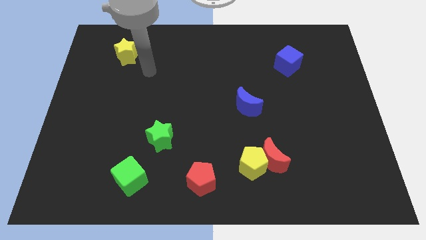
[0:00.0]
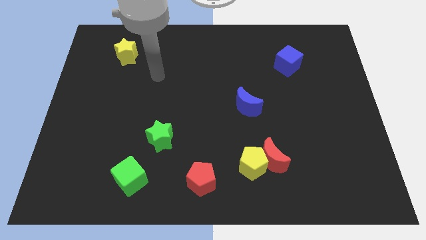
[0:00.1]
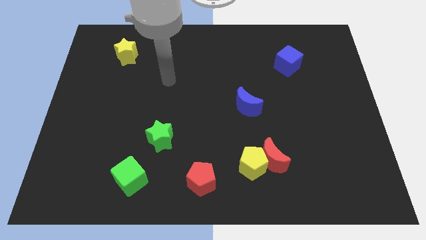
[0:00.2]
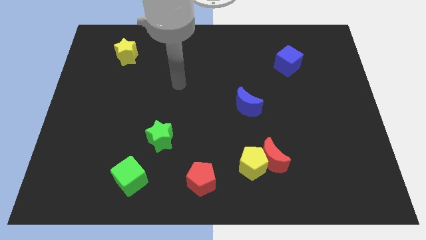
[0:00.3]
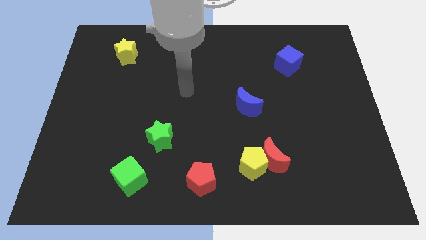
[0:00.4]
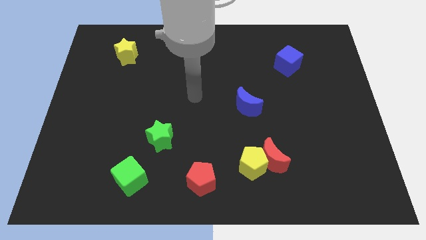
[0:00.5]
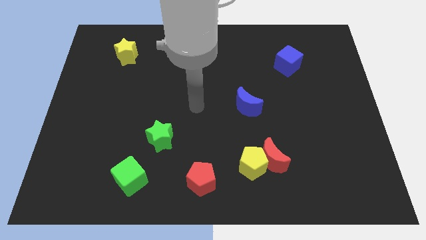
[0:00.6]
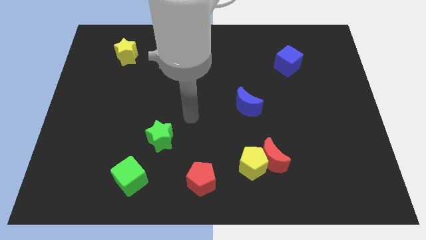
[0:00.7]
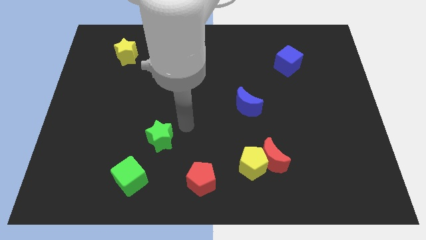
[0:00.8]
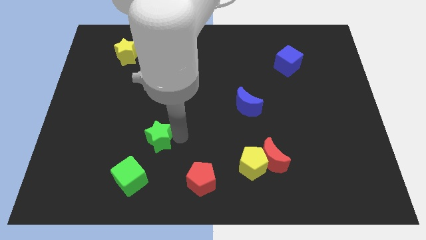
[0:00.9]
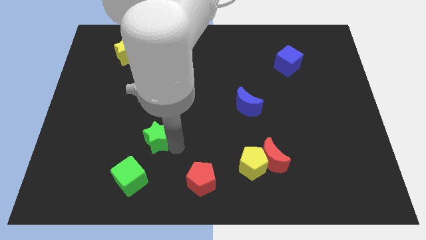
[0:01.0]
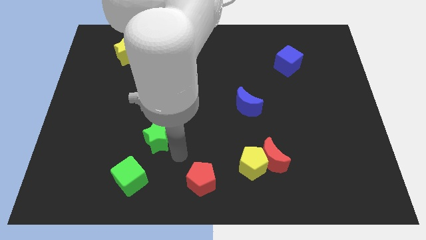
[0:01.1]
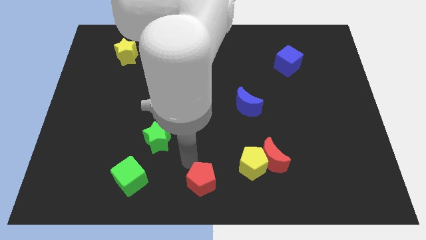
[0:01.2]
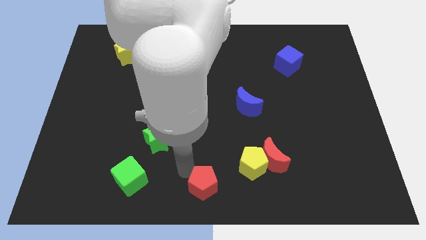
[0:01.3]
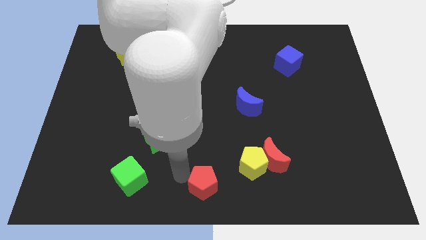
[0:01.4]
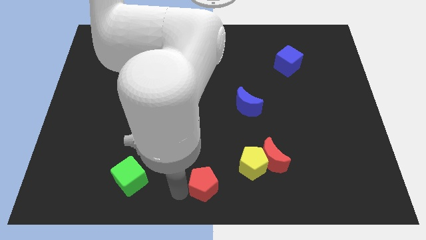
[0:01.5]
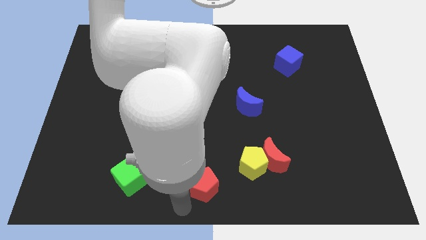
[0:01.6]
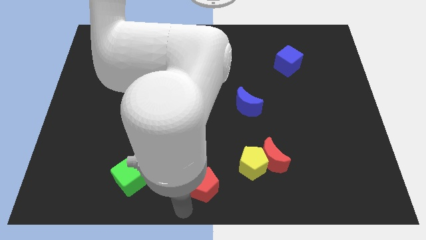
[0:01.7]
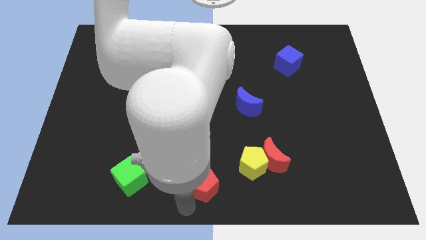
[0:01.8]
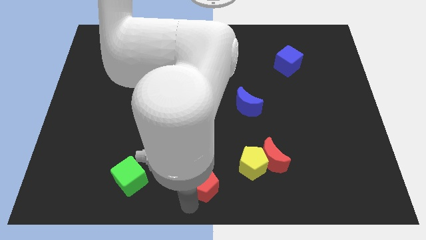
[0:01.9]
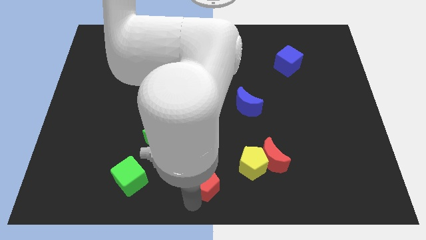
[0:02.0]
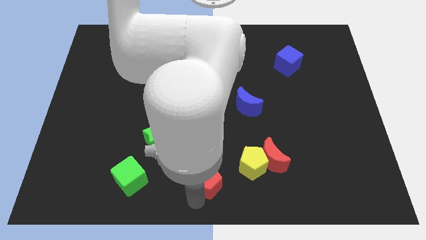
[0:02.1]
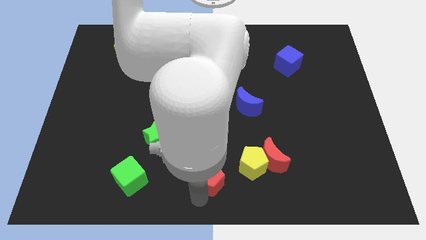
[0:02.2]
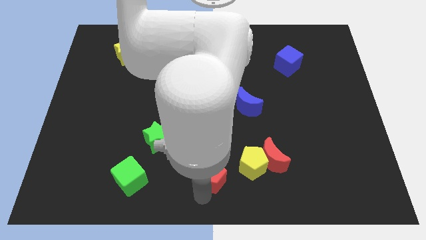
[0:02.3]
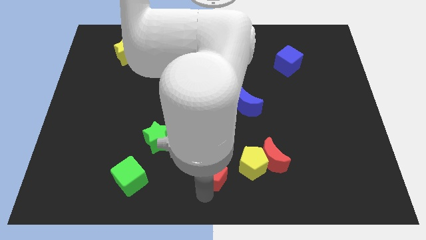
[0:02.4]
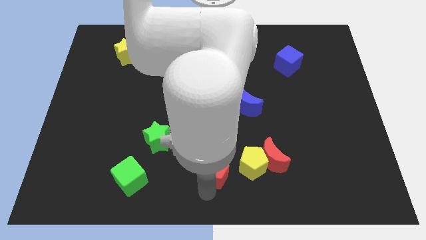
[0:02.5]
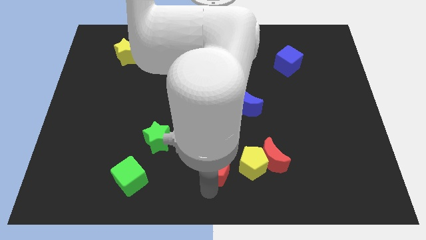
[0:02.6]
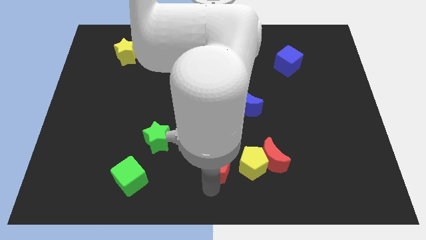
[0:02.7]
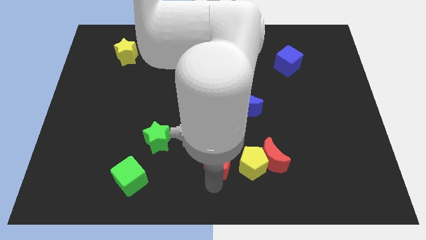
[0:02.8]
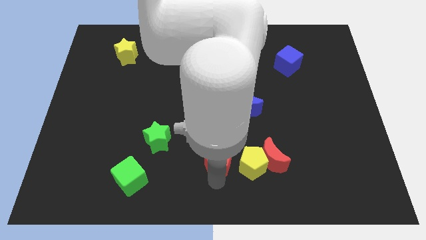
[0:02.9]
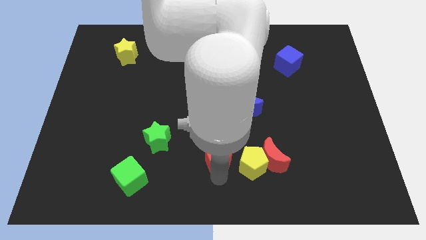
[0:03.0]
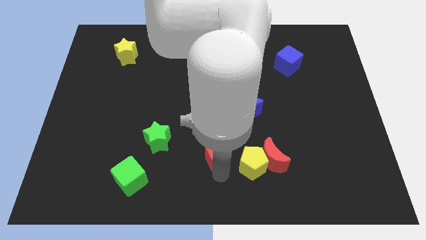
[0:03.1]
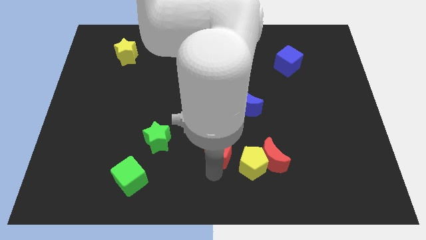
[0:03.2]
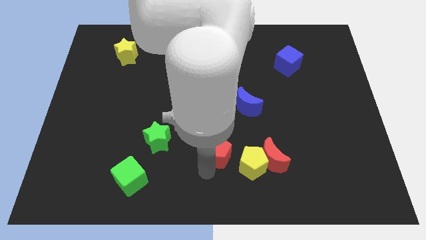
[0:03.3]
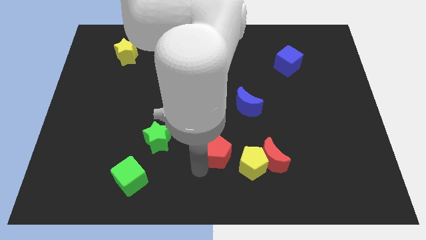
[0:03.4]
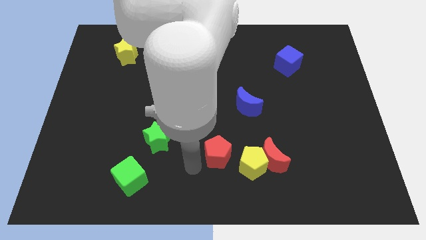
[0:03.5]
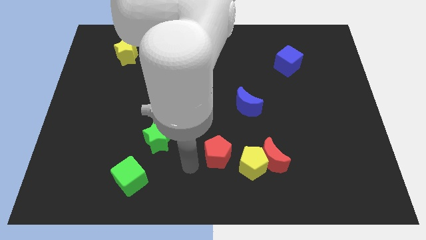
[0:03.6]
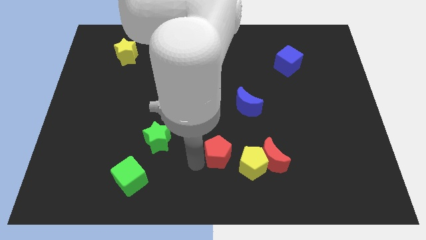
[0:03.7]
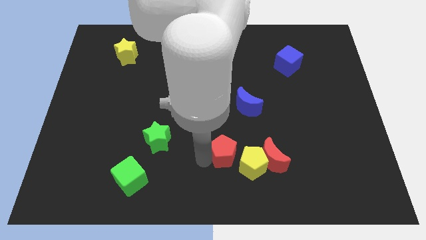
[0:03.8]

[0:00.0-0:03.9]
slightly push the red pentagon upwards and then to the right

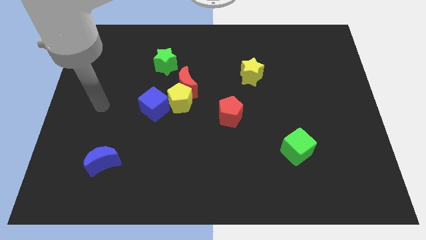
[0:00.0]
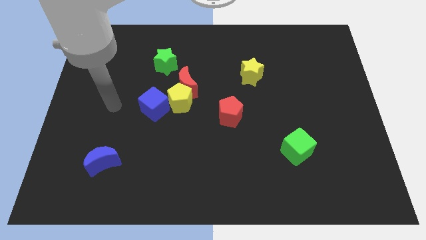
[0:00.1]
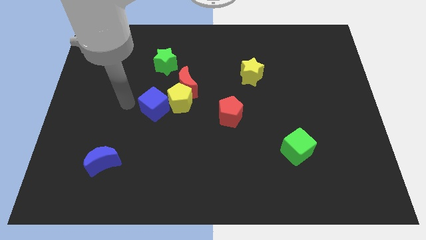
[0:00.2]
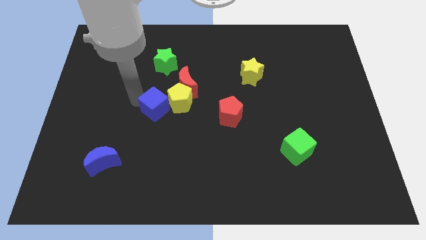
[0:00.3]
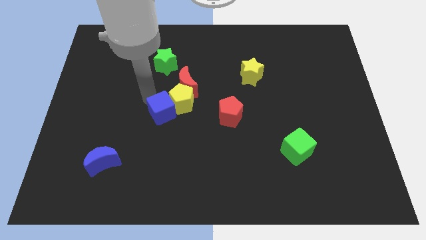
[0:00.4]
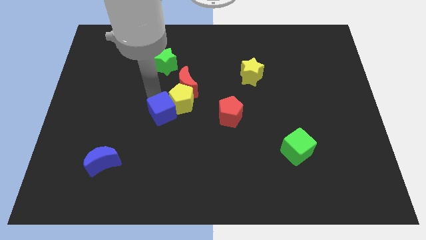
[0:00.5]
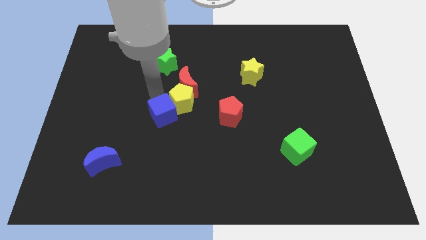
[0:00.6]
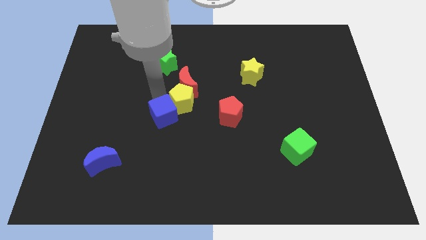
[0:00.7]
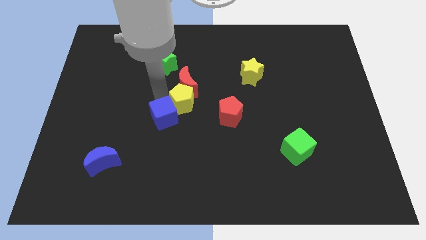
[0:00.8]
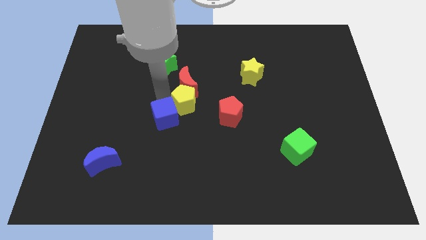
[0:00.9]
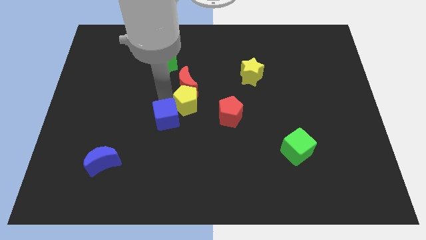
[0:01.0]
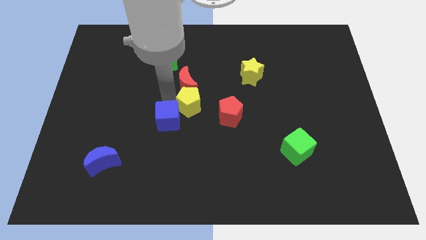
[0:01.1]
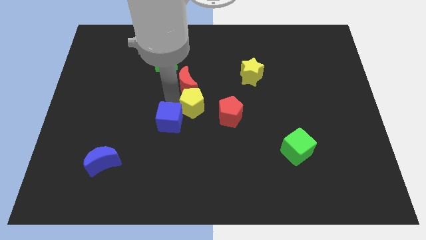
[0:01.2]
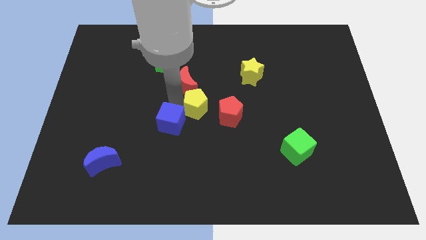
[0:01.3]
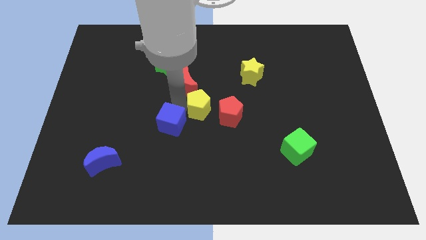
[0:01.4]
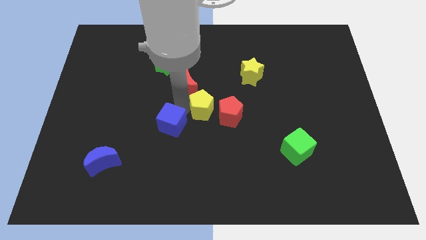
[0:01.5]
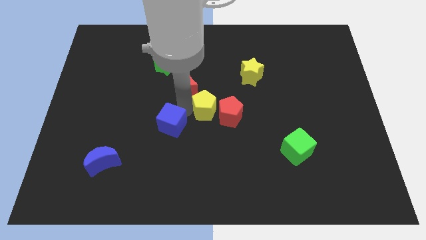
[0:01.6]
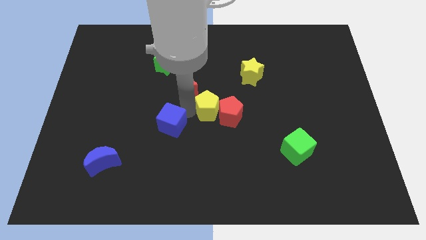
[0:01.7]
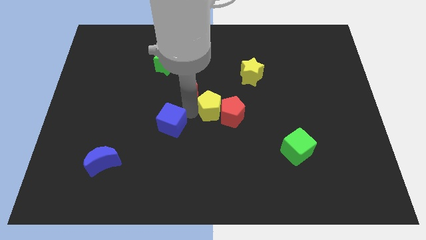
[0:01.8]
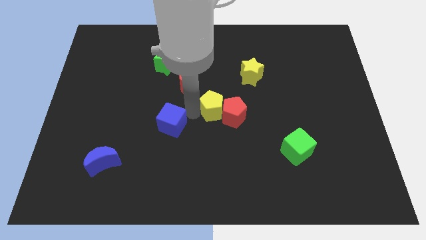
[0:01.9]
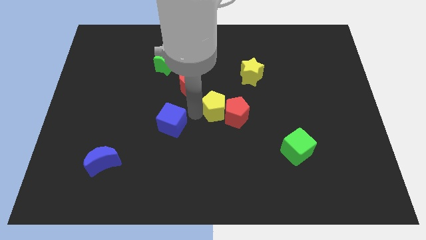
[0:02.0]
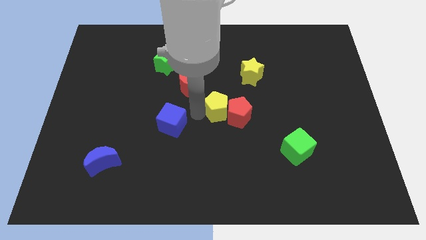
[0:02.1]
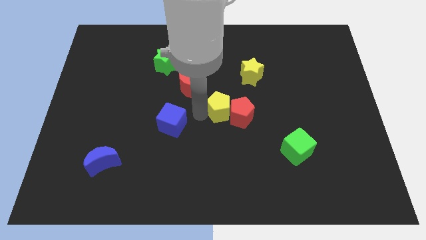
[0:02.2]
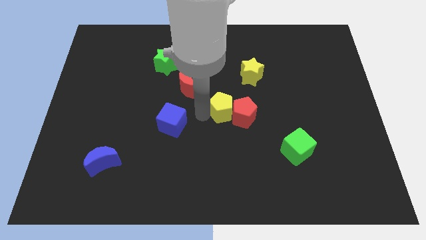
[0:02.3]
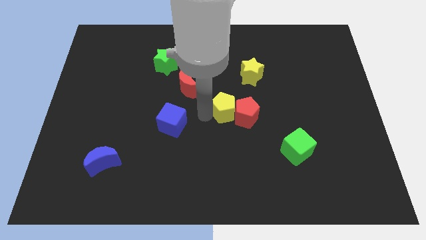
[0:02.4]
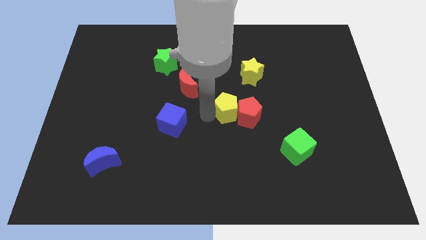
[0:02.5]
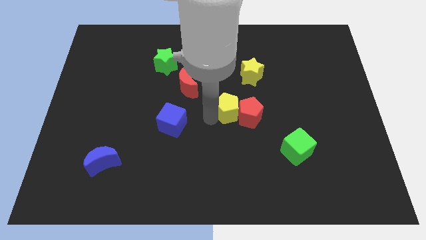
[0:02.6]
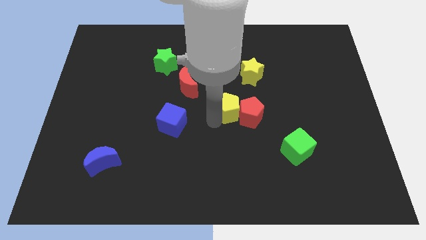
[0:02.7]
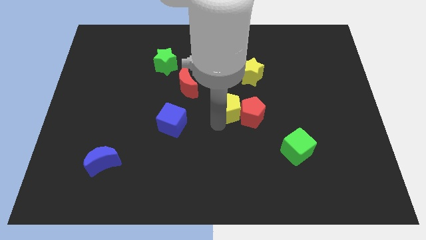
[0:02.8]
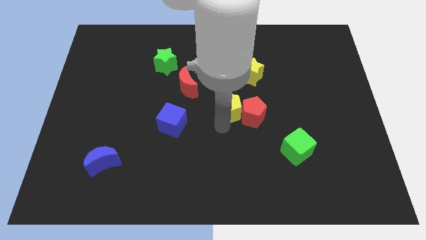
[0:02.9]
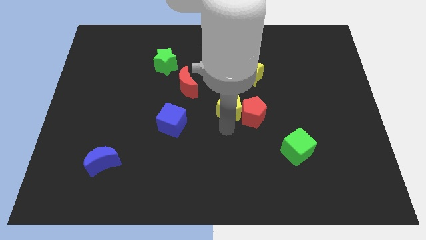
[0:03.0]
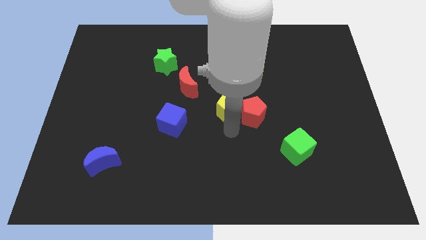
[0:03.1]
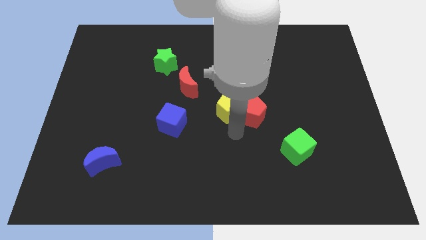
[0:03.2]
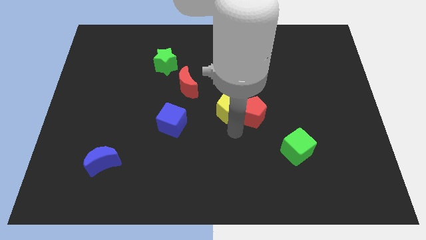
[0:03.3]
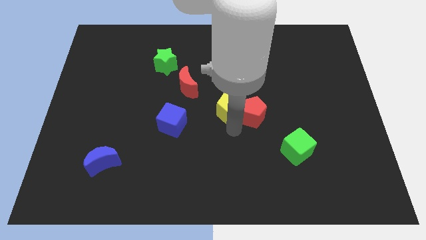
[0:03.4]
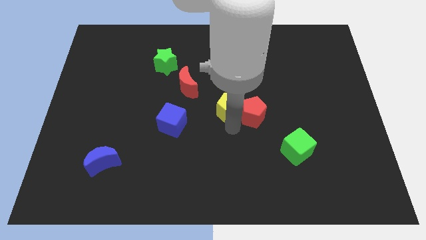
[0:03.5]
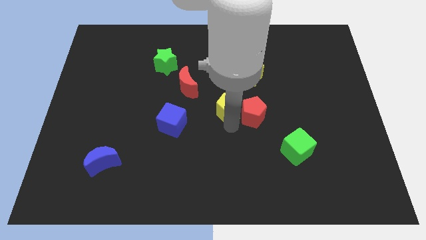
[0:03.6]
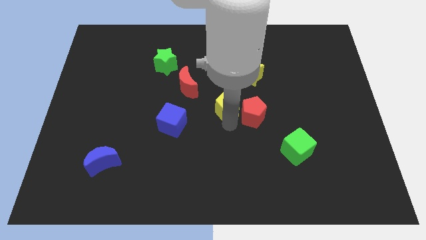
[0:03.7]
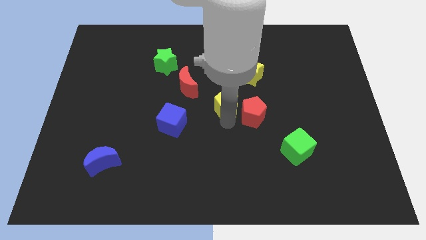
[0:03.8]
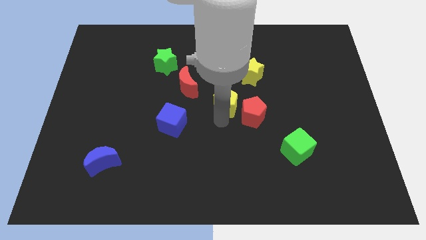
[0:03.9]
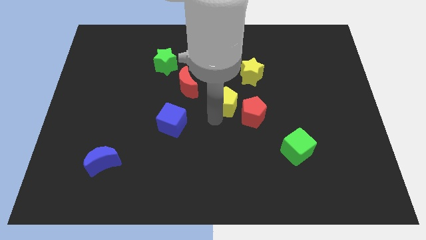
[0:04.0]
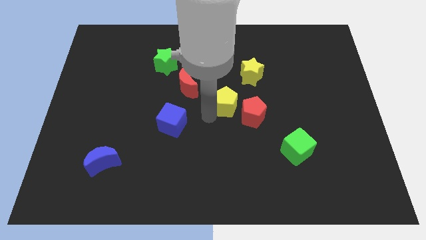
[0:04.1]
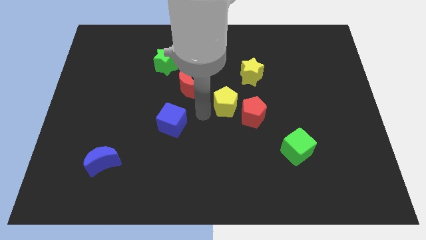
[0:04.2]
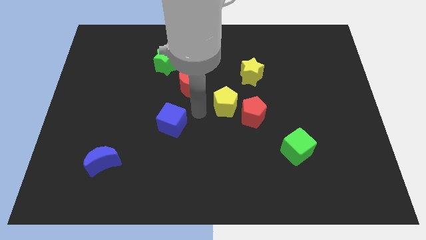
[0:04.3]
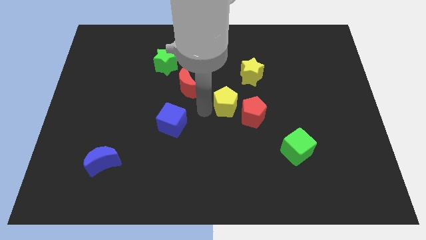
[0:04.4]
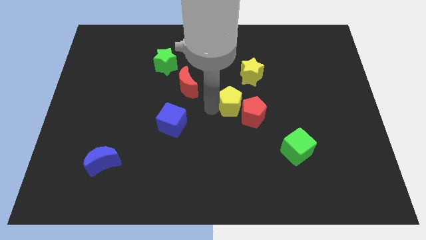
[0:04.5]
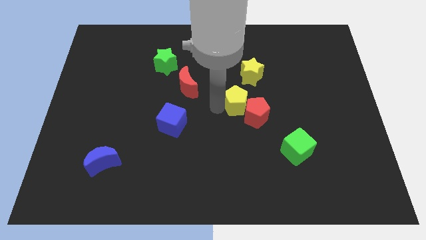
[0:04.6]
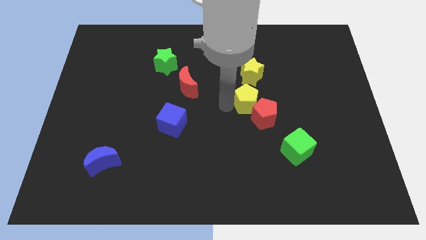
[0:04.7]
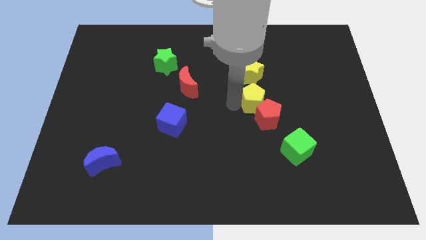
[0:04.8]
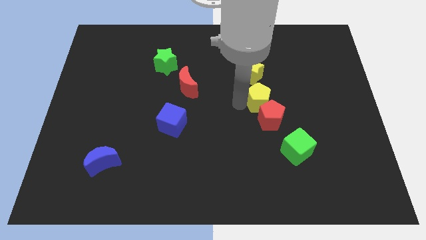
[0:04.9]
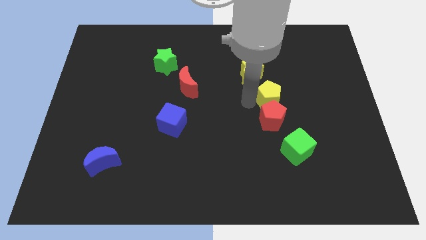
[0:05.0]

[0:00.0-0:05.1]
move the yellow pentagon right
